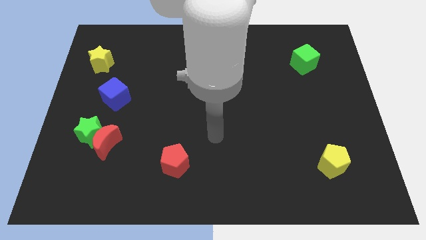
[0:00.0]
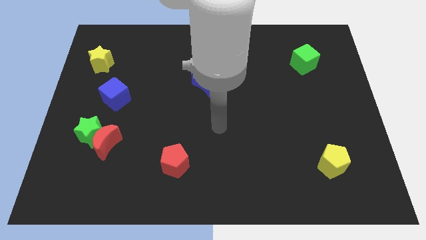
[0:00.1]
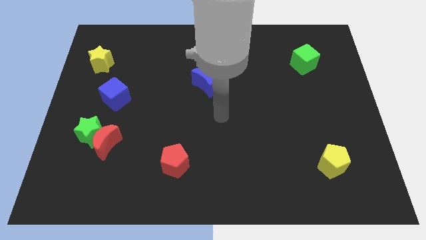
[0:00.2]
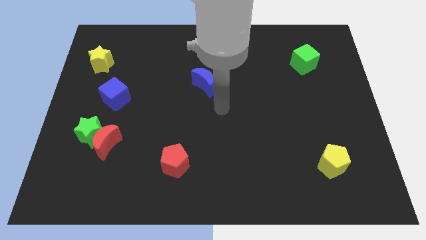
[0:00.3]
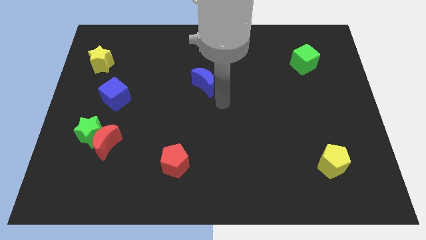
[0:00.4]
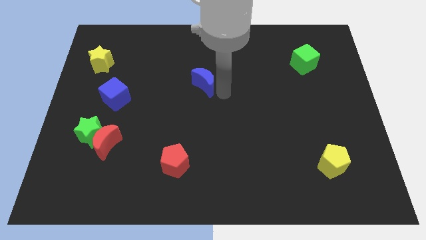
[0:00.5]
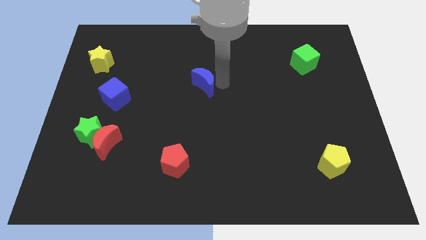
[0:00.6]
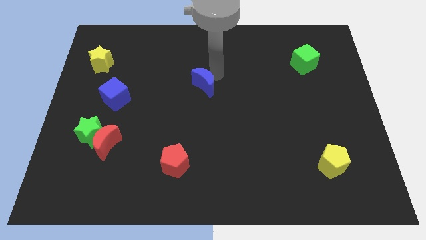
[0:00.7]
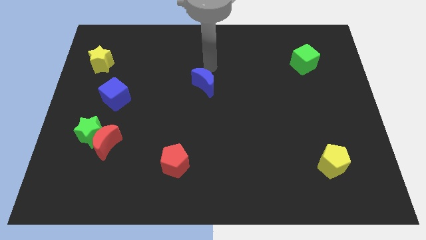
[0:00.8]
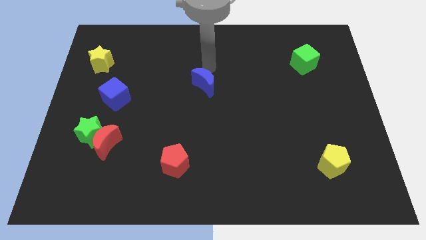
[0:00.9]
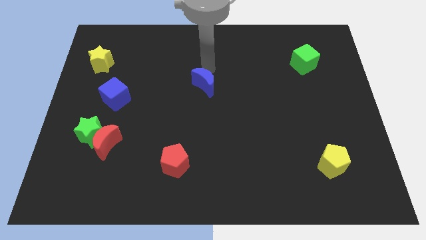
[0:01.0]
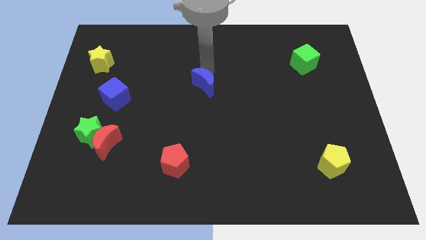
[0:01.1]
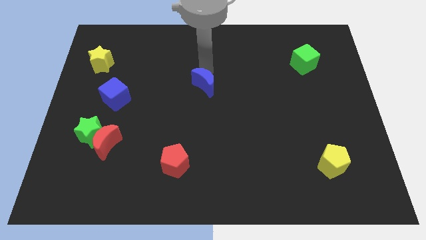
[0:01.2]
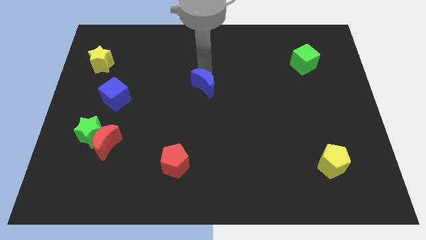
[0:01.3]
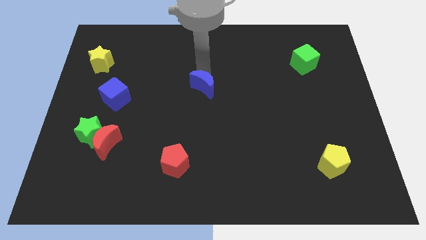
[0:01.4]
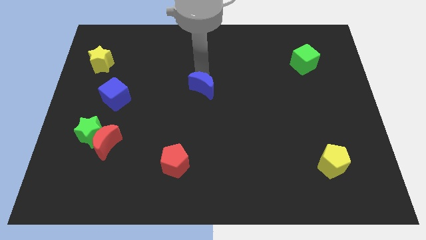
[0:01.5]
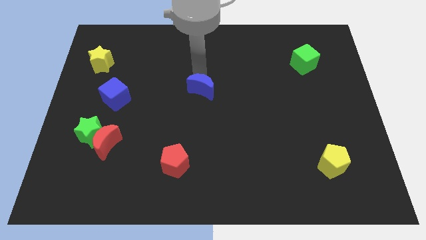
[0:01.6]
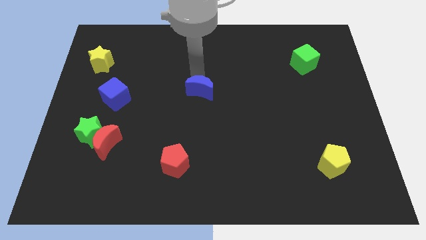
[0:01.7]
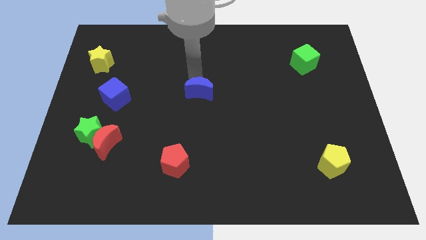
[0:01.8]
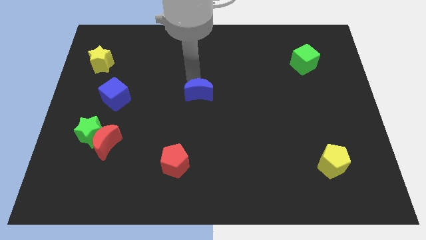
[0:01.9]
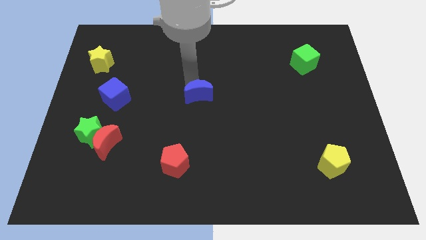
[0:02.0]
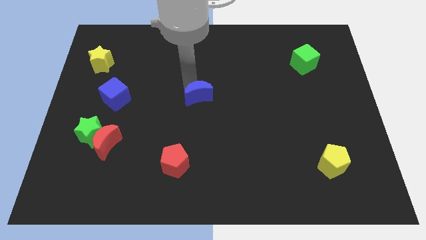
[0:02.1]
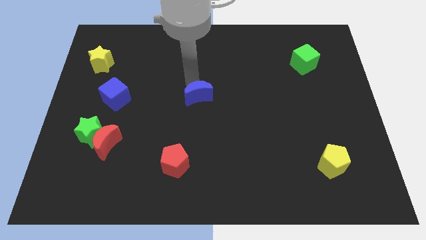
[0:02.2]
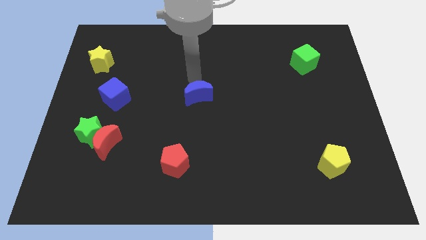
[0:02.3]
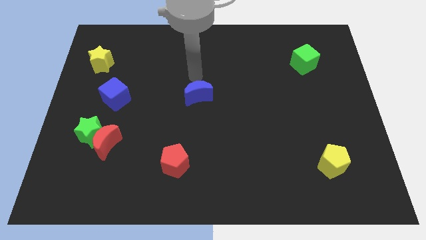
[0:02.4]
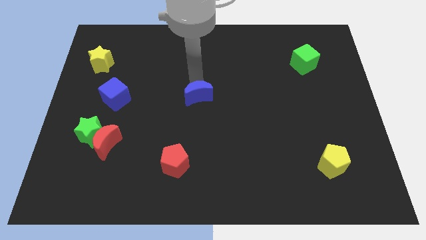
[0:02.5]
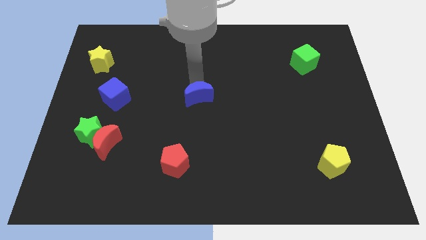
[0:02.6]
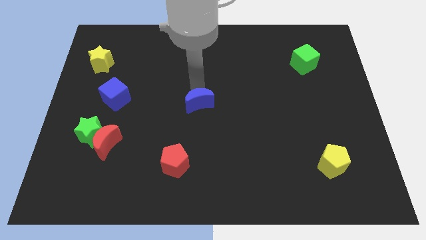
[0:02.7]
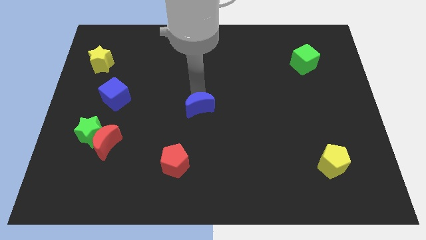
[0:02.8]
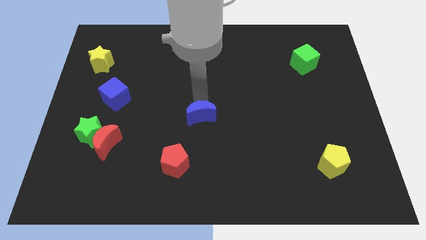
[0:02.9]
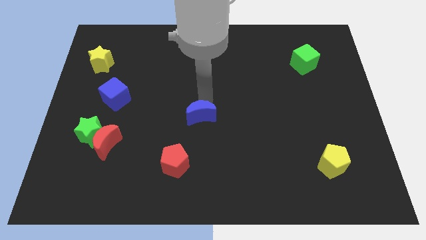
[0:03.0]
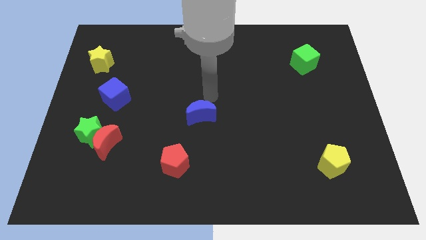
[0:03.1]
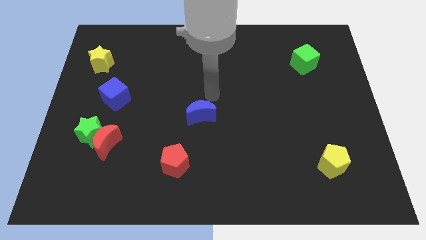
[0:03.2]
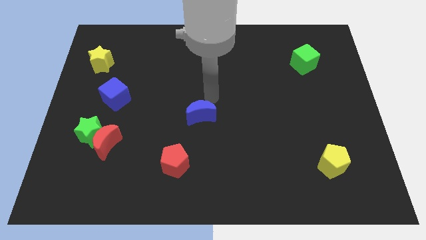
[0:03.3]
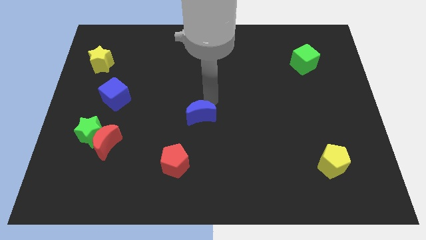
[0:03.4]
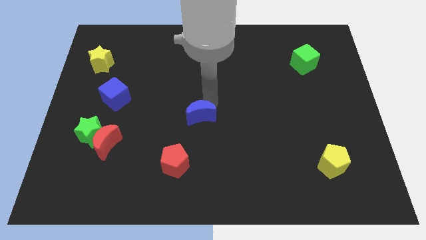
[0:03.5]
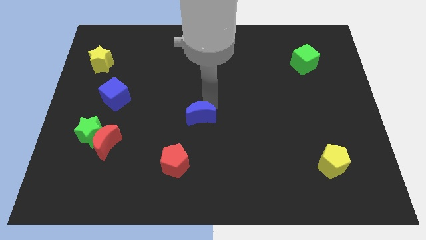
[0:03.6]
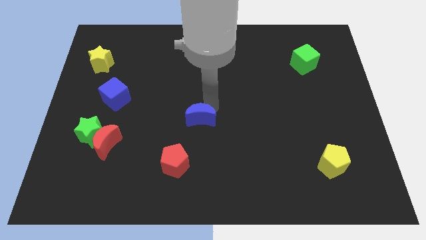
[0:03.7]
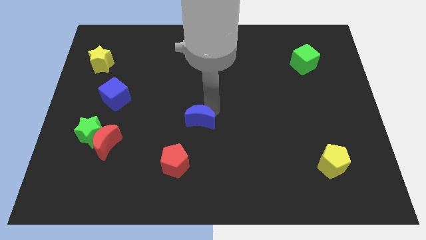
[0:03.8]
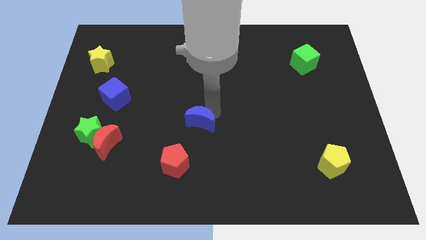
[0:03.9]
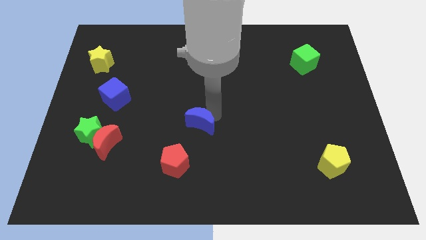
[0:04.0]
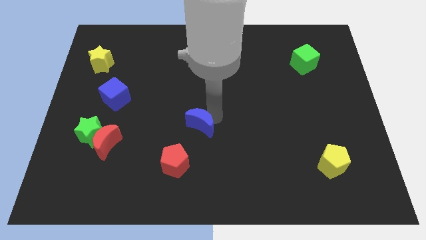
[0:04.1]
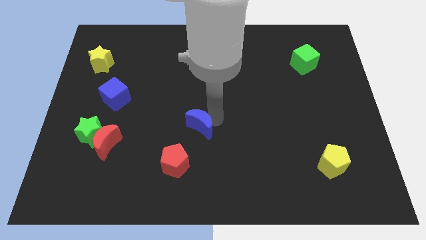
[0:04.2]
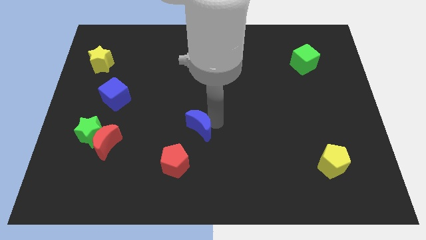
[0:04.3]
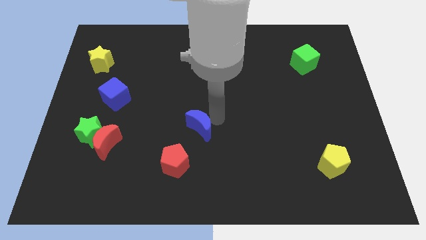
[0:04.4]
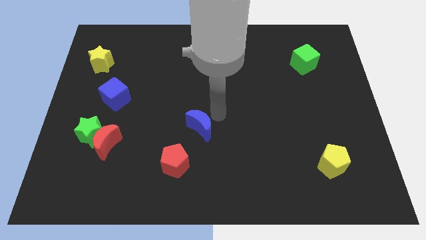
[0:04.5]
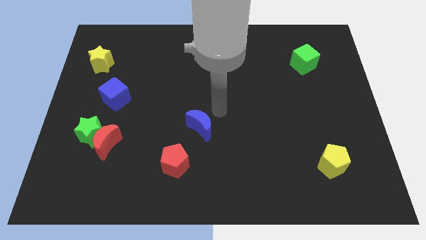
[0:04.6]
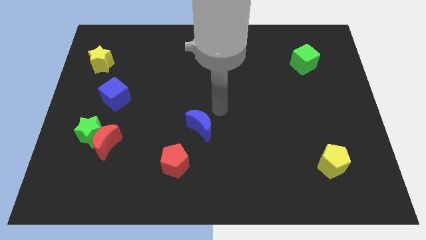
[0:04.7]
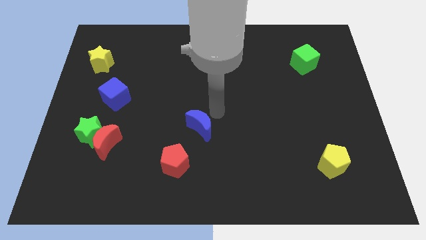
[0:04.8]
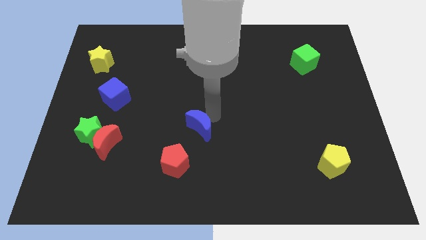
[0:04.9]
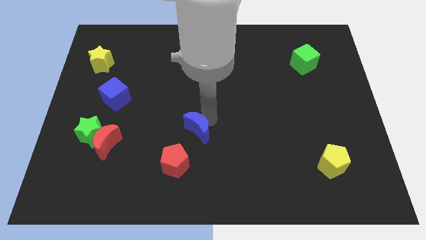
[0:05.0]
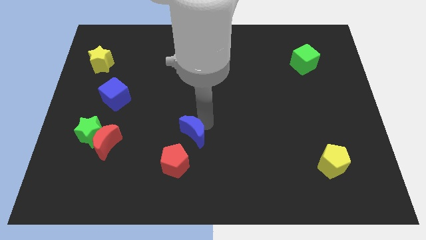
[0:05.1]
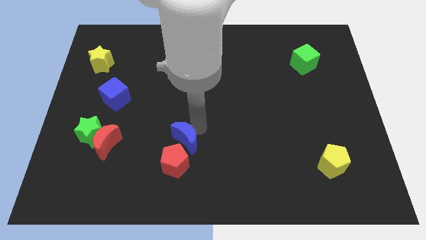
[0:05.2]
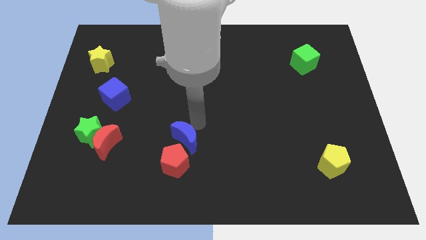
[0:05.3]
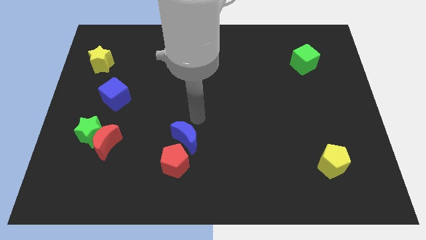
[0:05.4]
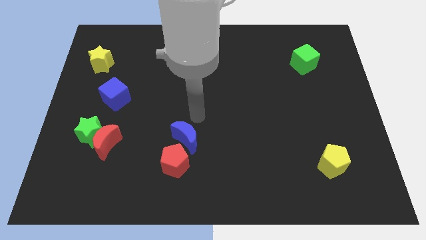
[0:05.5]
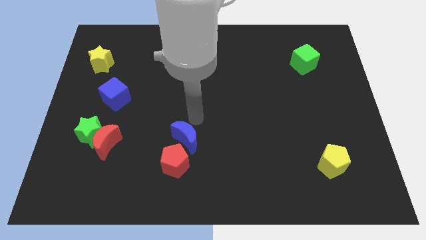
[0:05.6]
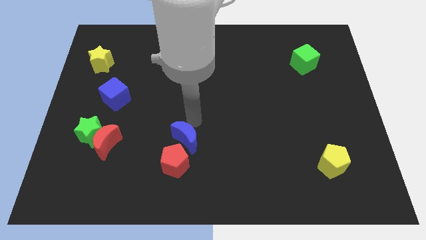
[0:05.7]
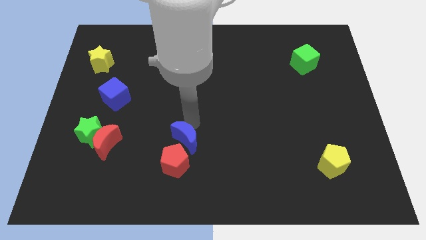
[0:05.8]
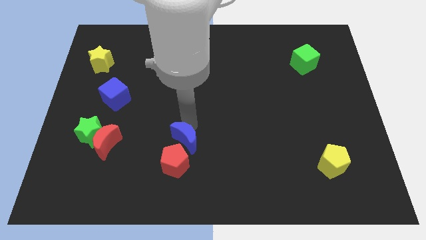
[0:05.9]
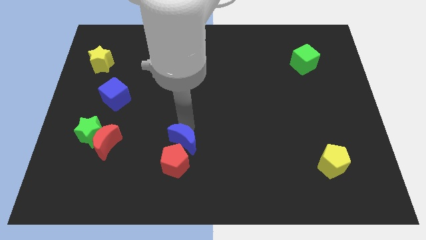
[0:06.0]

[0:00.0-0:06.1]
move the blue moon next to the red pentagon

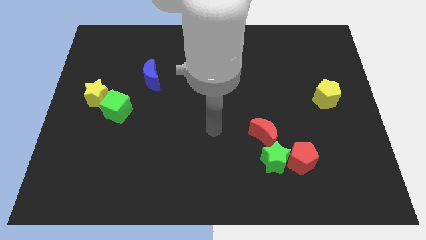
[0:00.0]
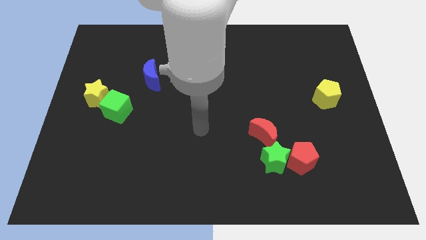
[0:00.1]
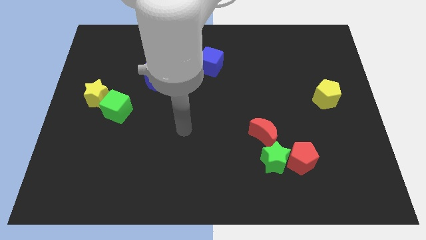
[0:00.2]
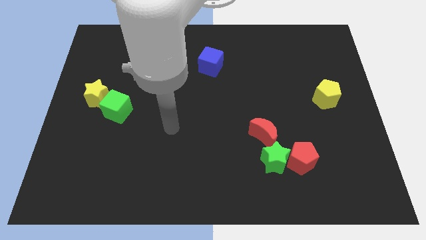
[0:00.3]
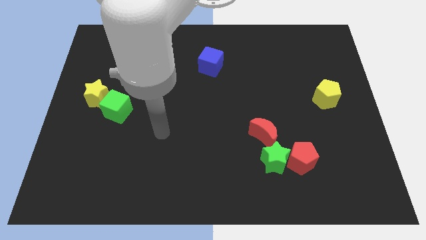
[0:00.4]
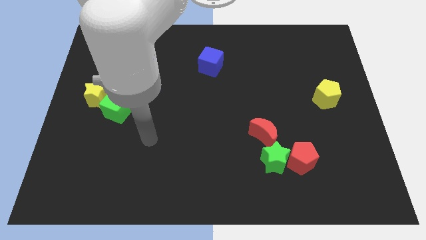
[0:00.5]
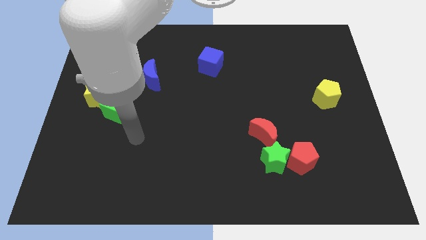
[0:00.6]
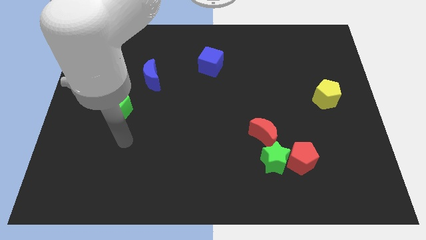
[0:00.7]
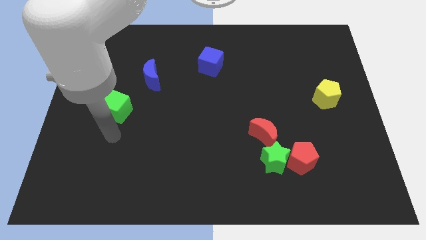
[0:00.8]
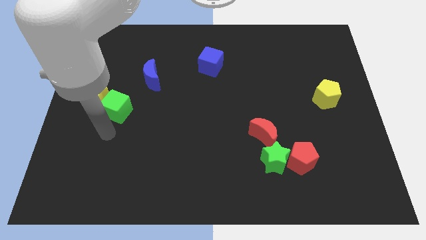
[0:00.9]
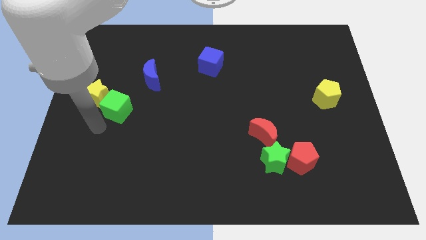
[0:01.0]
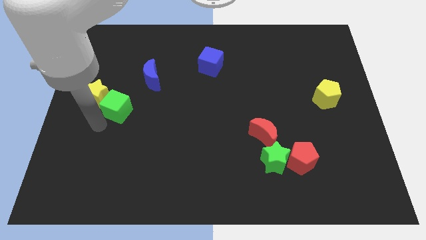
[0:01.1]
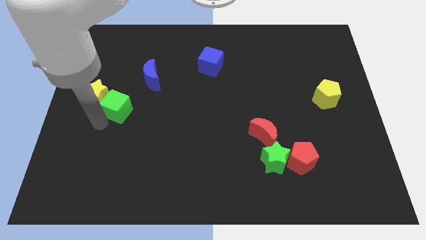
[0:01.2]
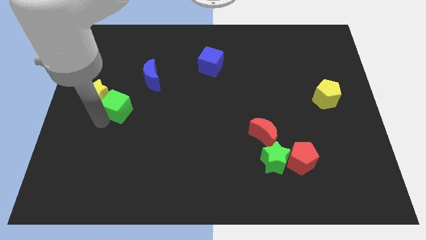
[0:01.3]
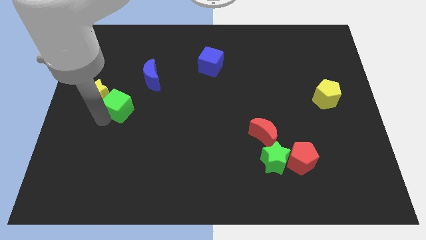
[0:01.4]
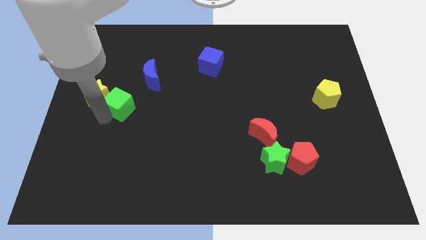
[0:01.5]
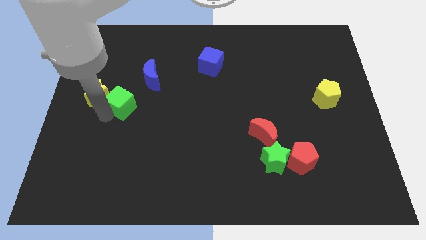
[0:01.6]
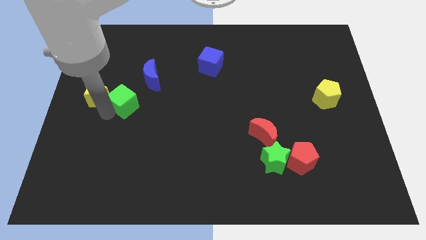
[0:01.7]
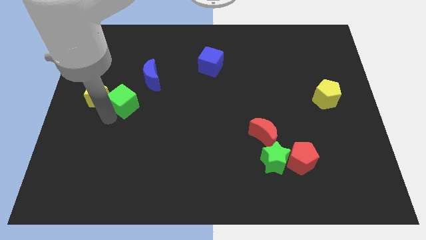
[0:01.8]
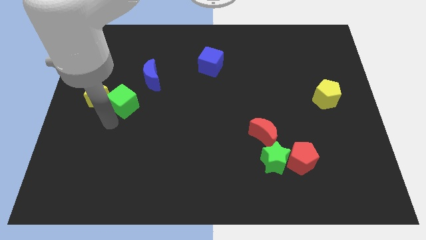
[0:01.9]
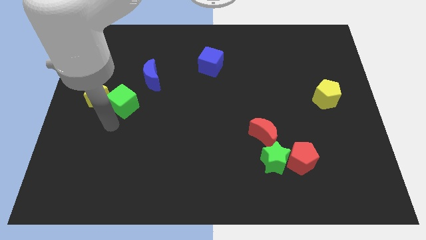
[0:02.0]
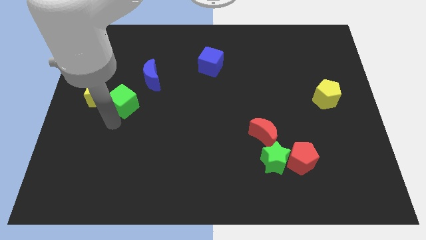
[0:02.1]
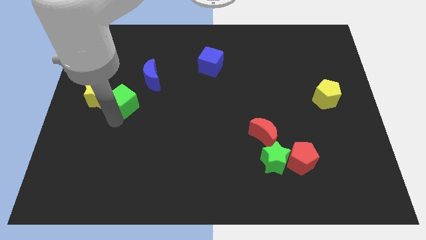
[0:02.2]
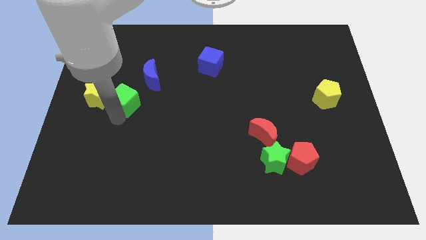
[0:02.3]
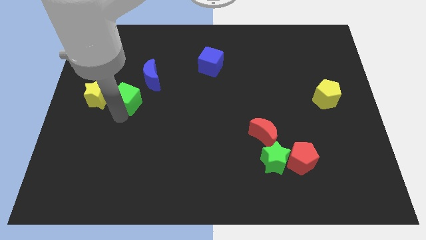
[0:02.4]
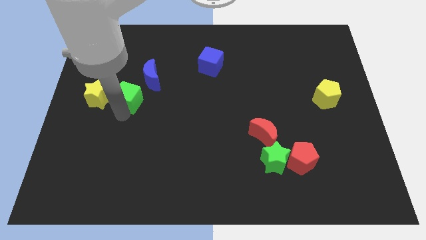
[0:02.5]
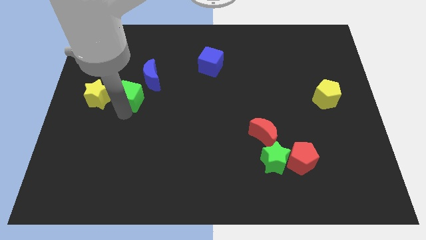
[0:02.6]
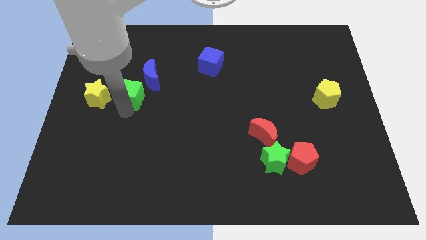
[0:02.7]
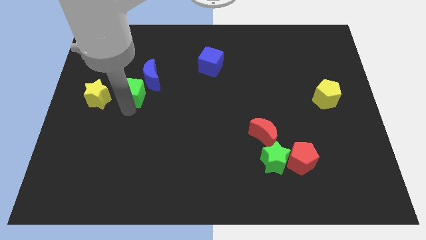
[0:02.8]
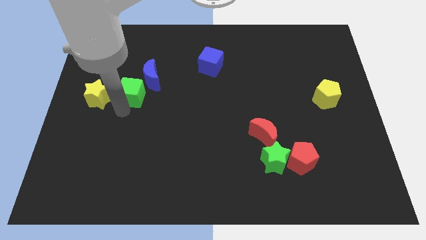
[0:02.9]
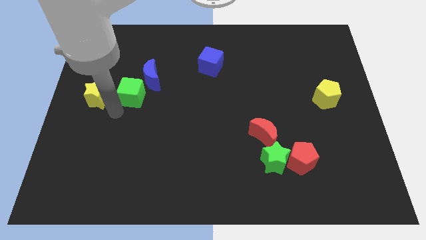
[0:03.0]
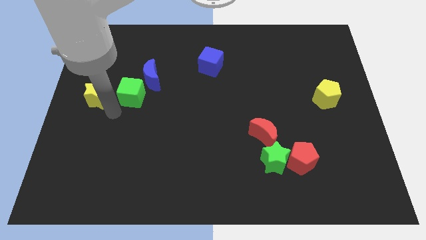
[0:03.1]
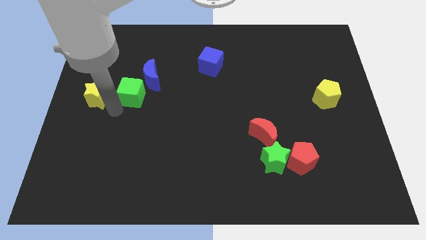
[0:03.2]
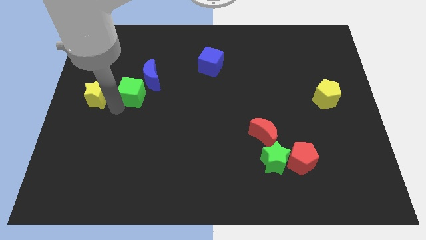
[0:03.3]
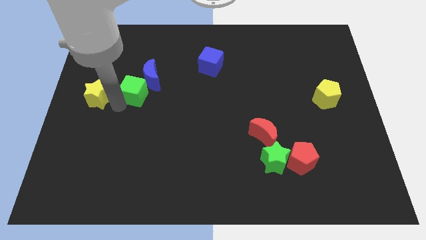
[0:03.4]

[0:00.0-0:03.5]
move the green cube to the blue moon
